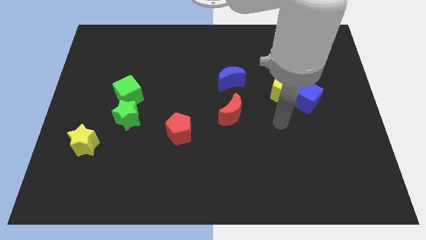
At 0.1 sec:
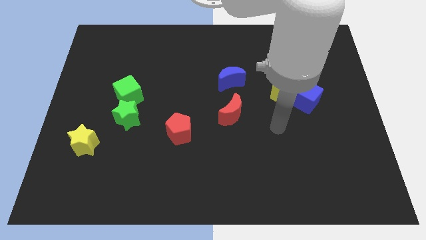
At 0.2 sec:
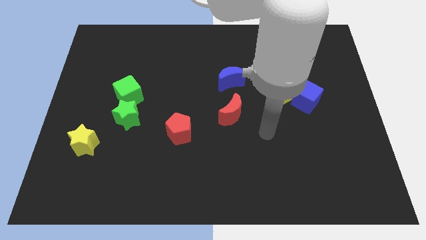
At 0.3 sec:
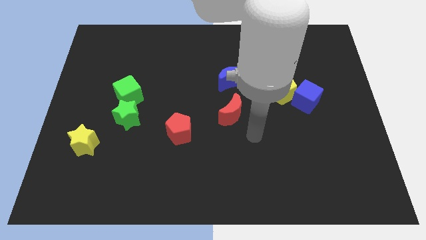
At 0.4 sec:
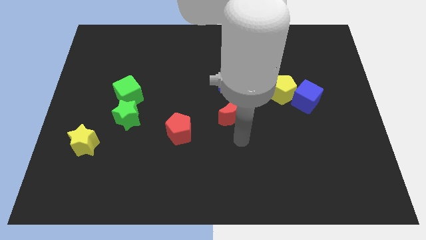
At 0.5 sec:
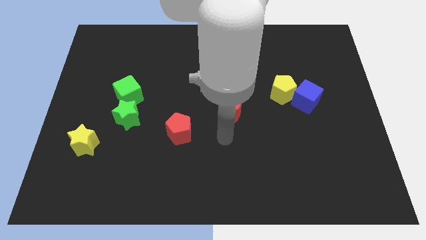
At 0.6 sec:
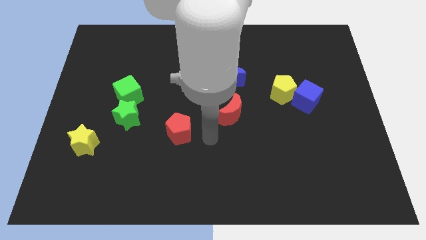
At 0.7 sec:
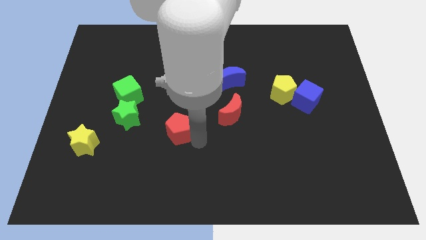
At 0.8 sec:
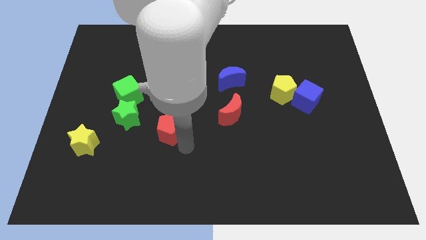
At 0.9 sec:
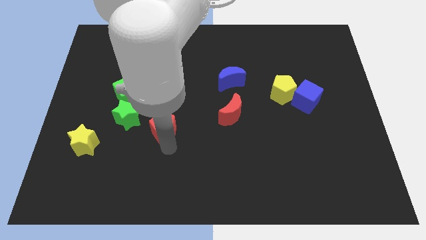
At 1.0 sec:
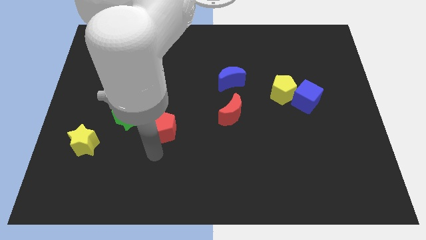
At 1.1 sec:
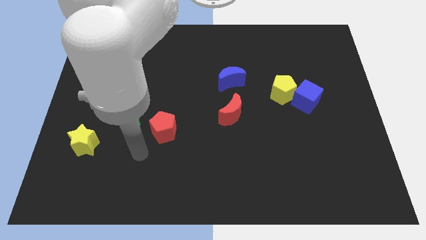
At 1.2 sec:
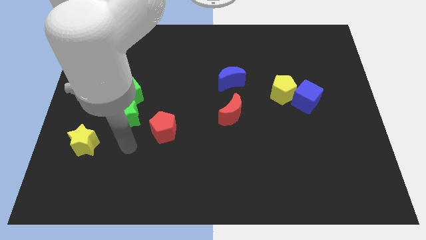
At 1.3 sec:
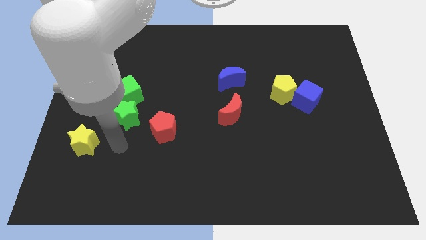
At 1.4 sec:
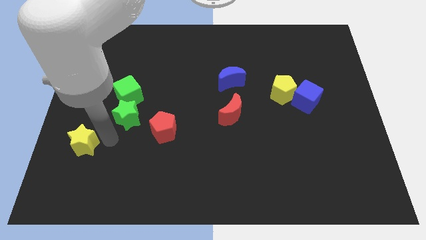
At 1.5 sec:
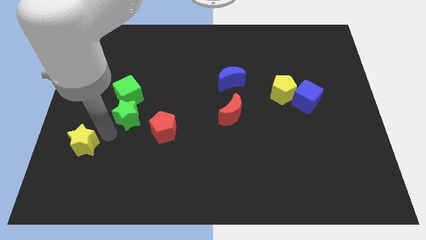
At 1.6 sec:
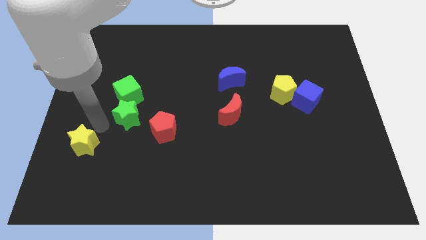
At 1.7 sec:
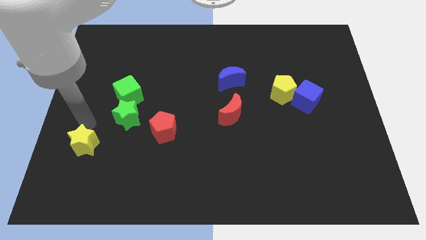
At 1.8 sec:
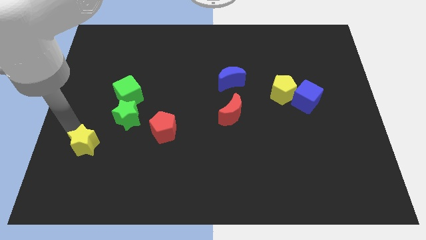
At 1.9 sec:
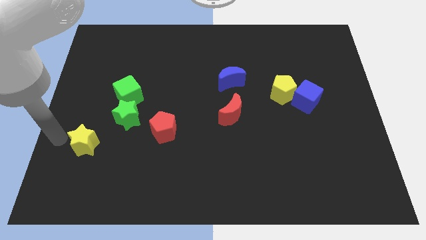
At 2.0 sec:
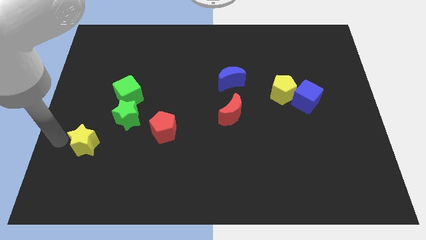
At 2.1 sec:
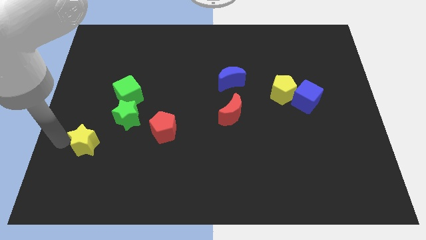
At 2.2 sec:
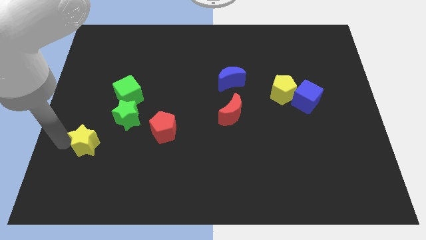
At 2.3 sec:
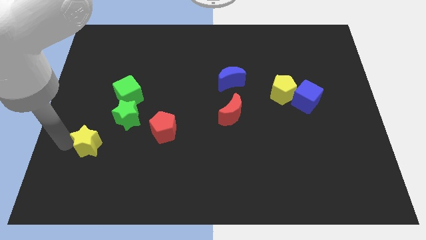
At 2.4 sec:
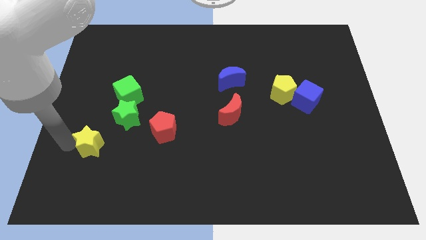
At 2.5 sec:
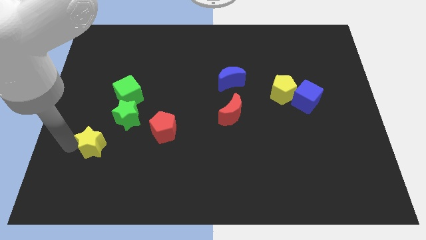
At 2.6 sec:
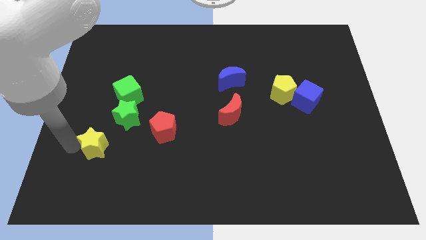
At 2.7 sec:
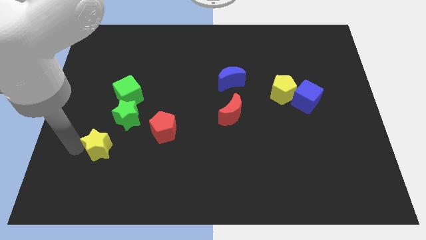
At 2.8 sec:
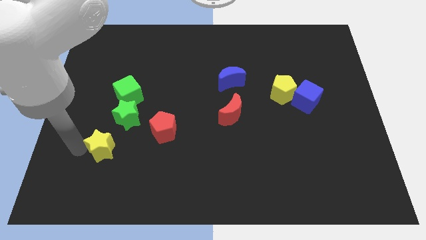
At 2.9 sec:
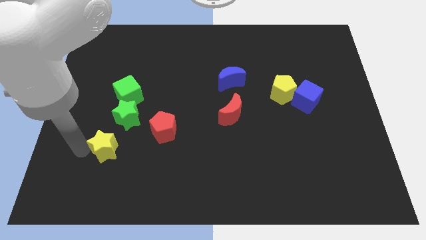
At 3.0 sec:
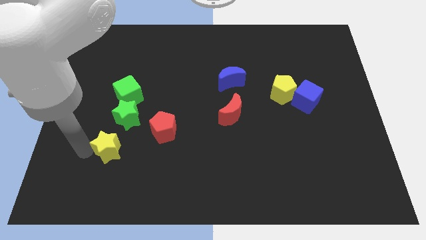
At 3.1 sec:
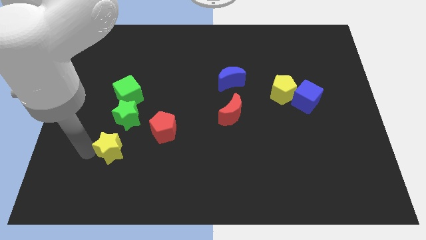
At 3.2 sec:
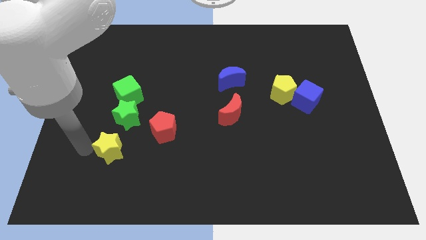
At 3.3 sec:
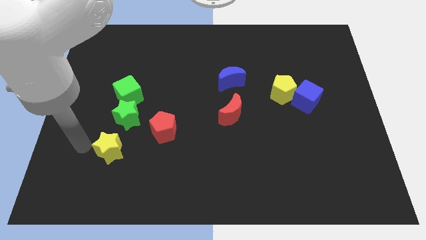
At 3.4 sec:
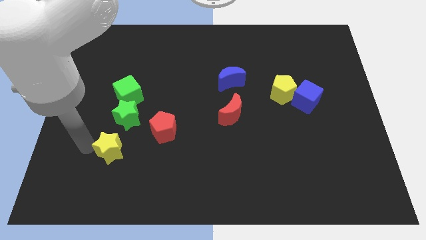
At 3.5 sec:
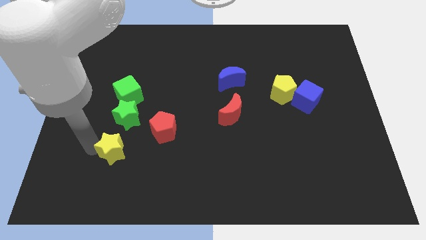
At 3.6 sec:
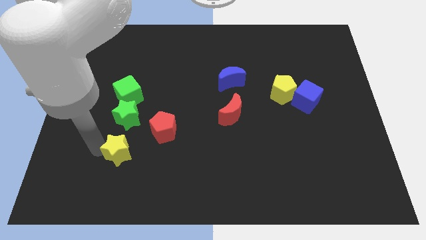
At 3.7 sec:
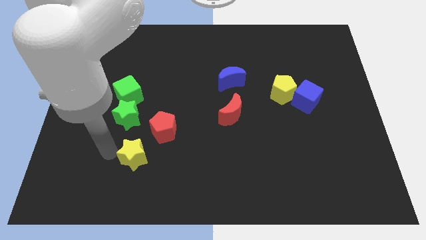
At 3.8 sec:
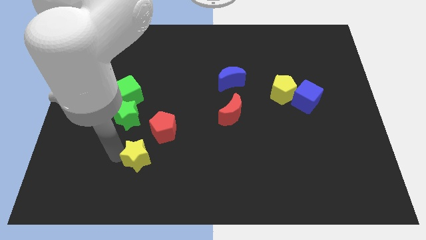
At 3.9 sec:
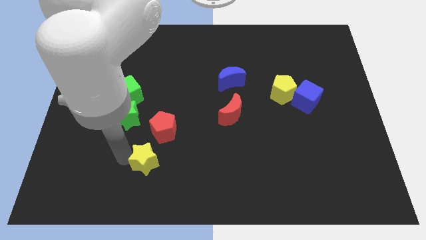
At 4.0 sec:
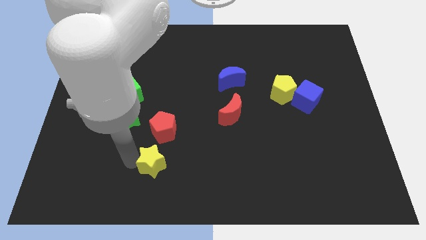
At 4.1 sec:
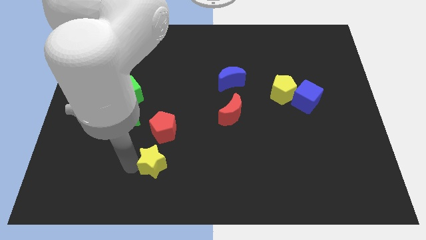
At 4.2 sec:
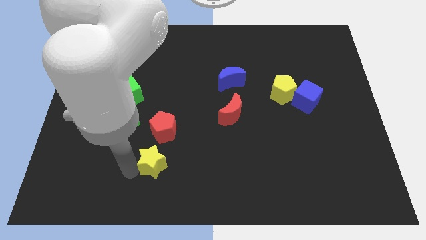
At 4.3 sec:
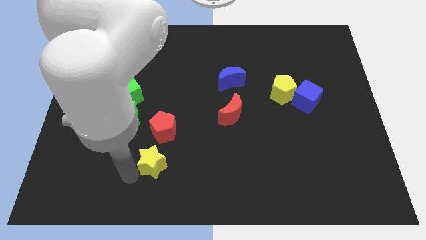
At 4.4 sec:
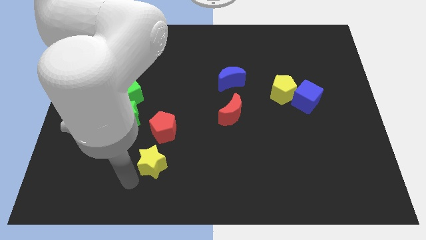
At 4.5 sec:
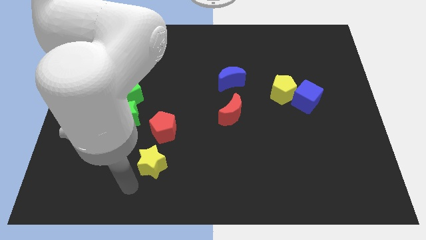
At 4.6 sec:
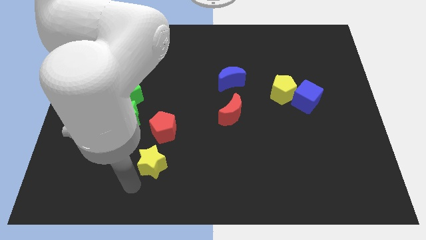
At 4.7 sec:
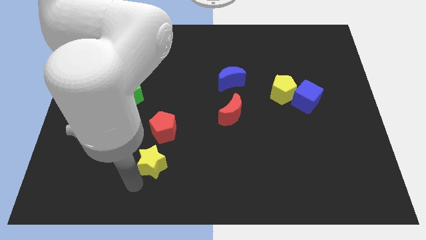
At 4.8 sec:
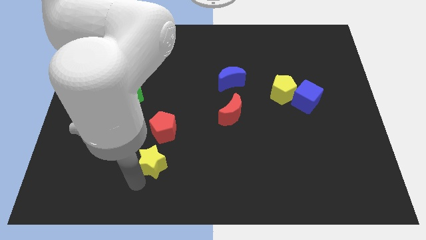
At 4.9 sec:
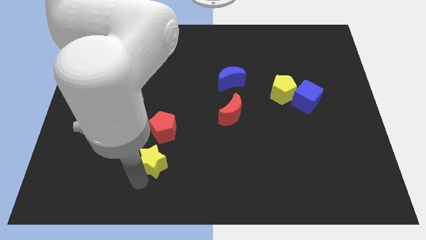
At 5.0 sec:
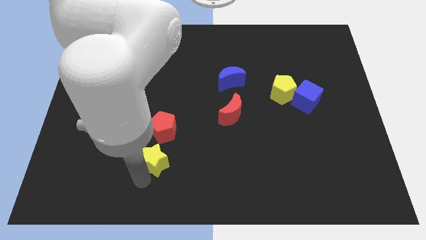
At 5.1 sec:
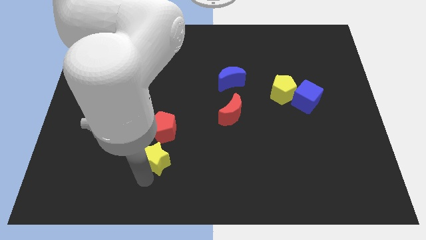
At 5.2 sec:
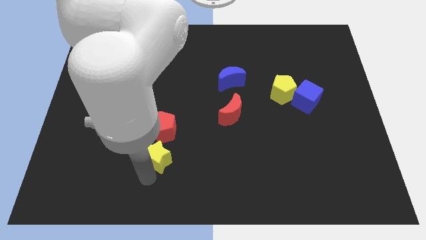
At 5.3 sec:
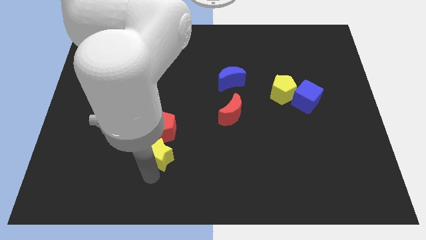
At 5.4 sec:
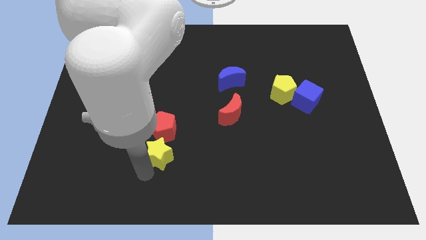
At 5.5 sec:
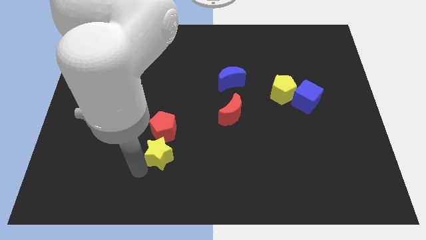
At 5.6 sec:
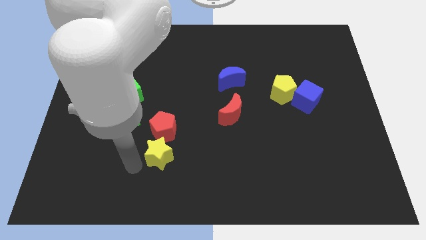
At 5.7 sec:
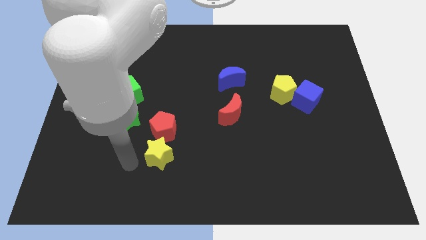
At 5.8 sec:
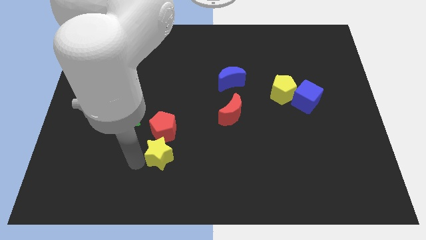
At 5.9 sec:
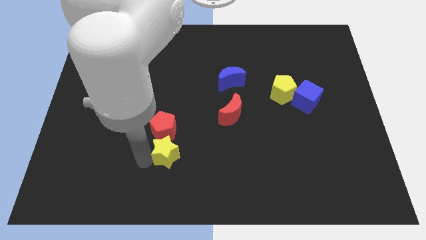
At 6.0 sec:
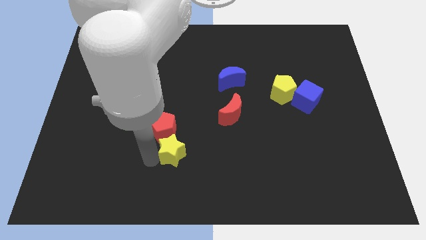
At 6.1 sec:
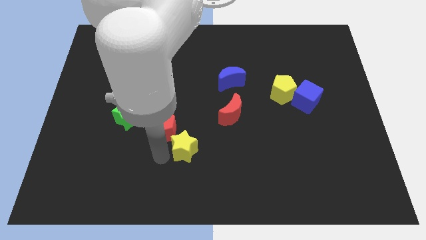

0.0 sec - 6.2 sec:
move the yellow star to the right

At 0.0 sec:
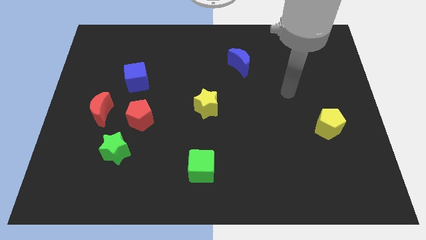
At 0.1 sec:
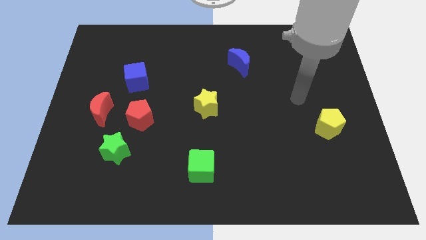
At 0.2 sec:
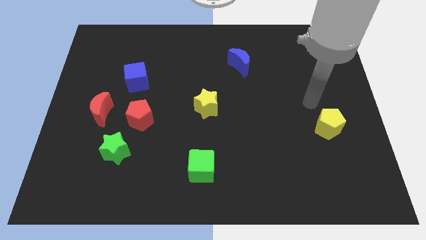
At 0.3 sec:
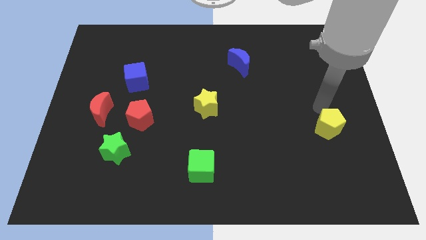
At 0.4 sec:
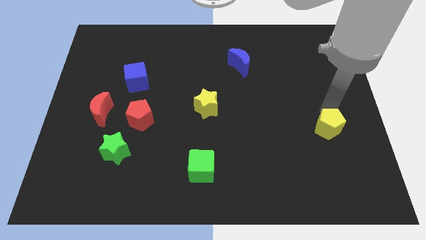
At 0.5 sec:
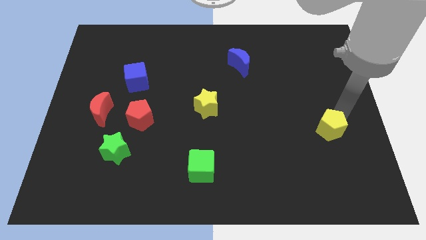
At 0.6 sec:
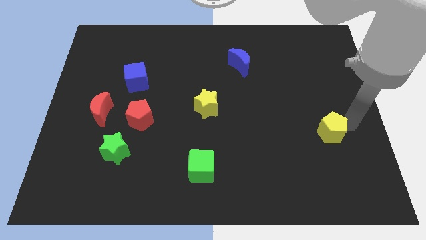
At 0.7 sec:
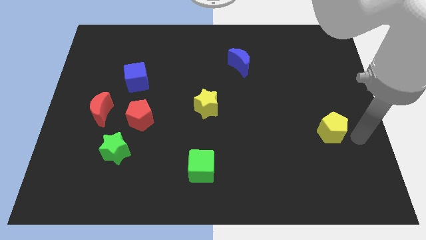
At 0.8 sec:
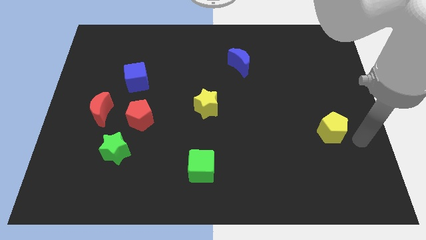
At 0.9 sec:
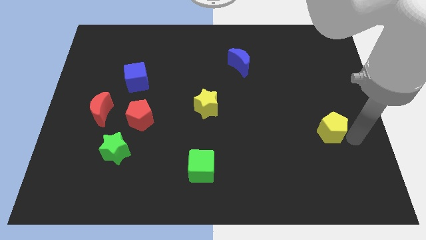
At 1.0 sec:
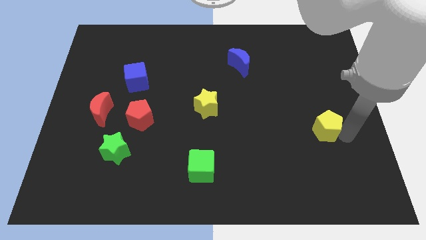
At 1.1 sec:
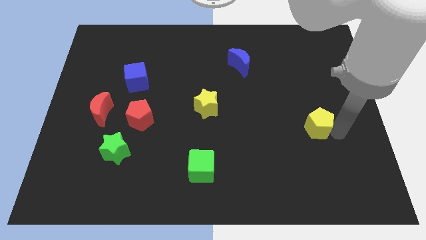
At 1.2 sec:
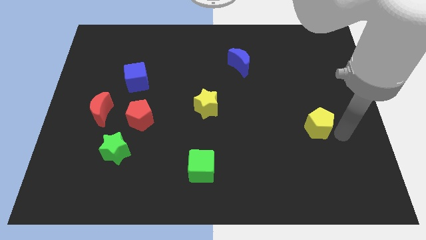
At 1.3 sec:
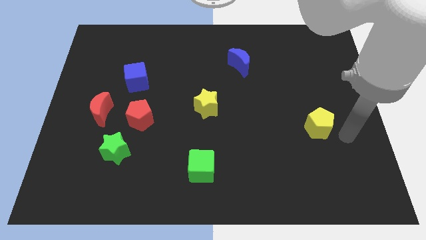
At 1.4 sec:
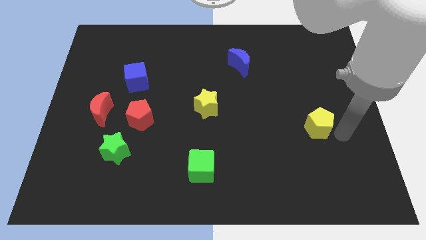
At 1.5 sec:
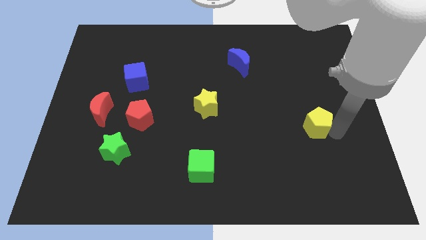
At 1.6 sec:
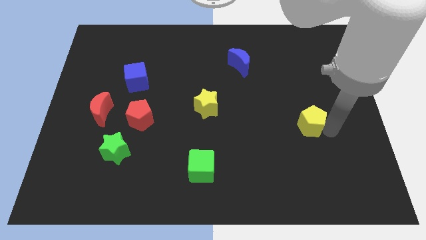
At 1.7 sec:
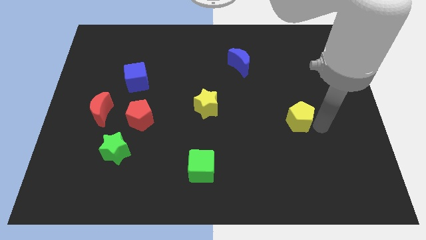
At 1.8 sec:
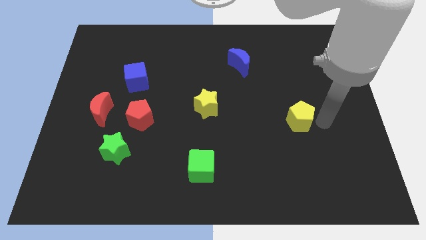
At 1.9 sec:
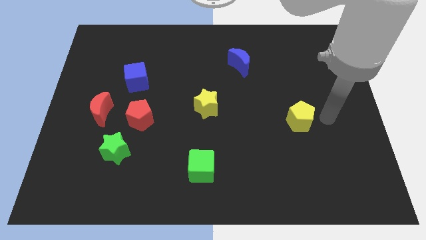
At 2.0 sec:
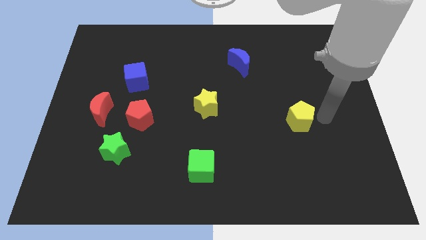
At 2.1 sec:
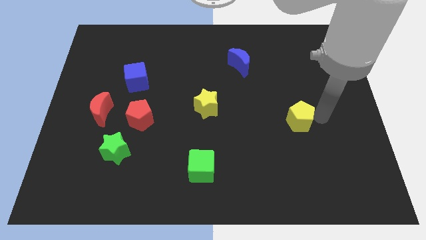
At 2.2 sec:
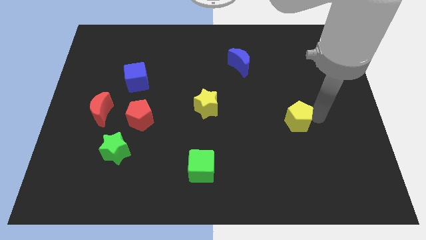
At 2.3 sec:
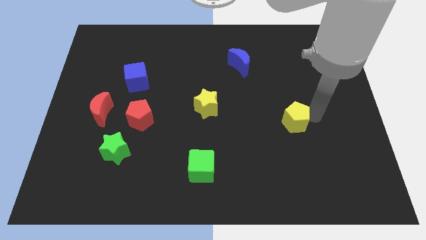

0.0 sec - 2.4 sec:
move the yellow pentagon to the left a bit
